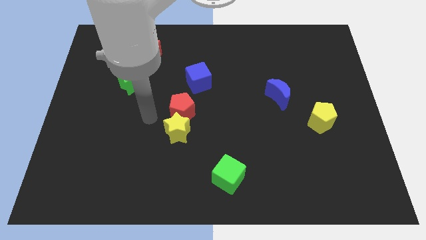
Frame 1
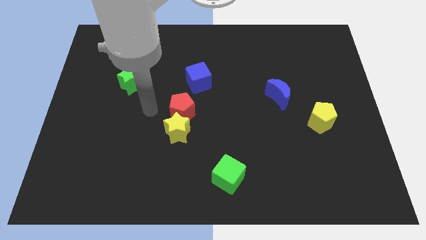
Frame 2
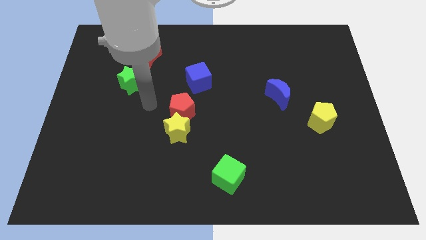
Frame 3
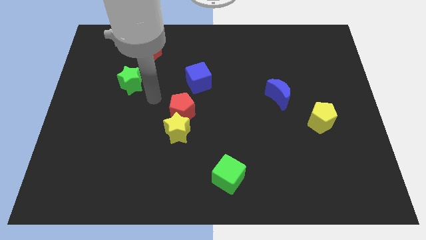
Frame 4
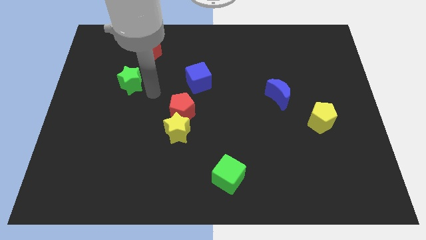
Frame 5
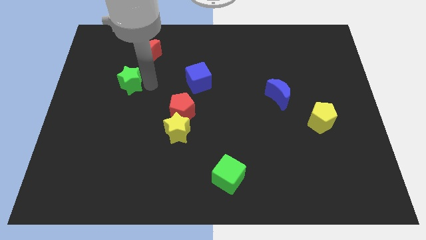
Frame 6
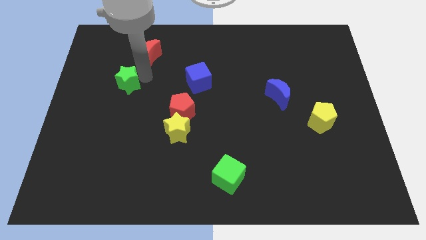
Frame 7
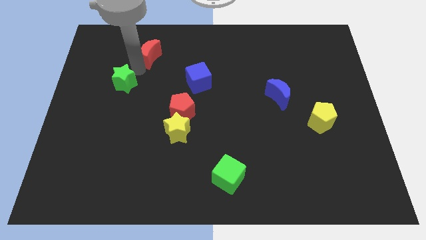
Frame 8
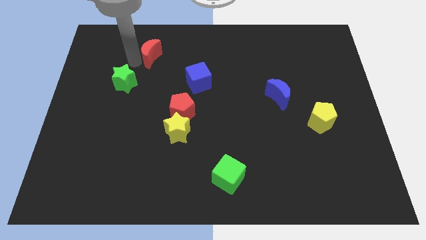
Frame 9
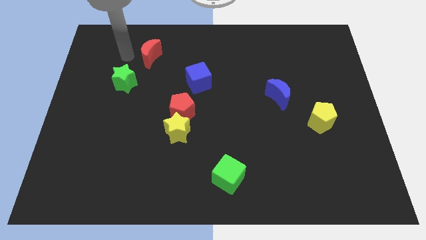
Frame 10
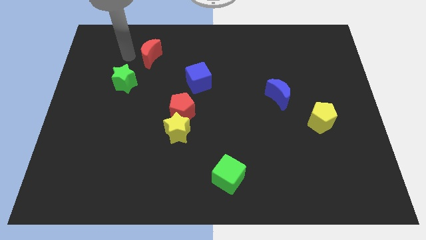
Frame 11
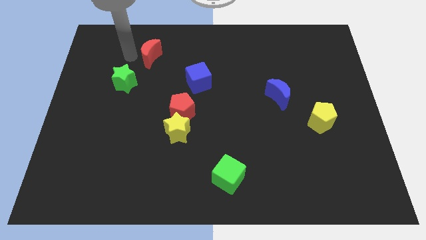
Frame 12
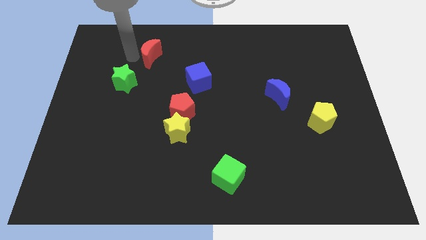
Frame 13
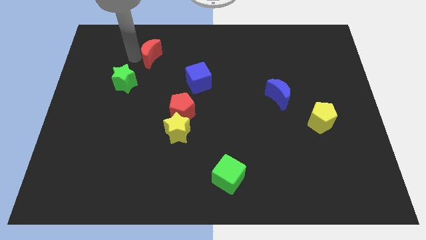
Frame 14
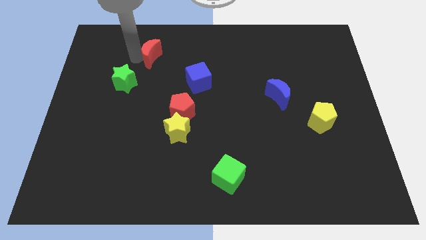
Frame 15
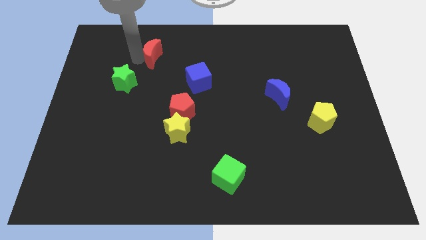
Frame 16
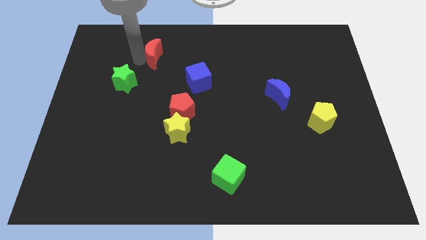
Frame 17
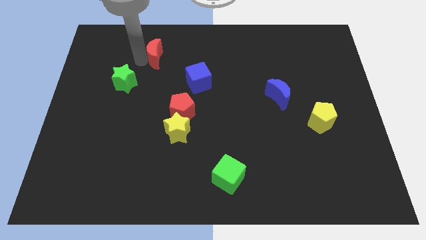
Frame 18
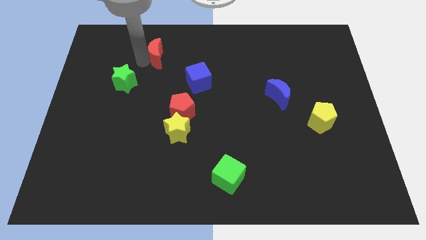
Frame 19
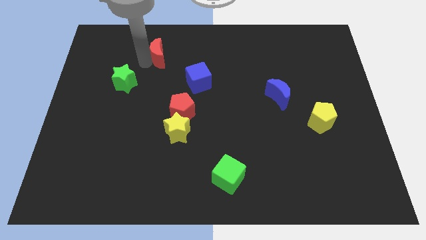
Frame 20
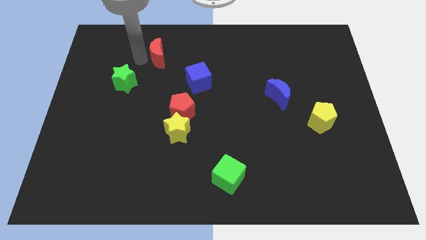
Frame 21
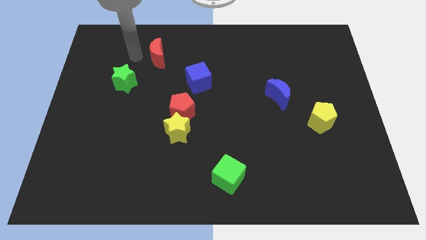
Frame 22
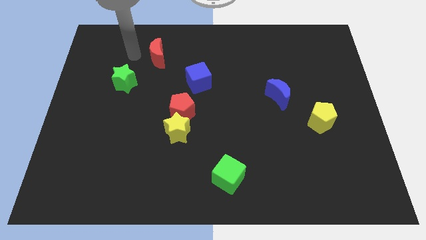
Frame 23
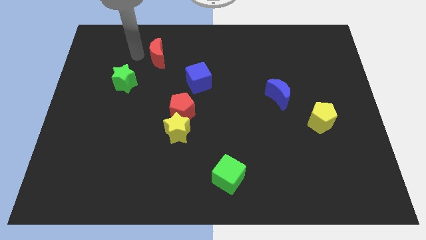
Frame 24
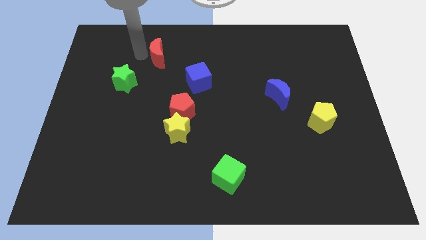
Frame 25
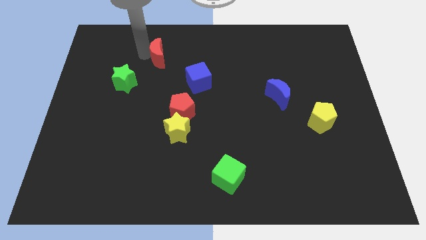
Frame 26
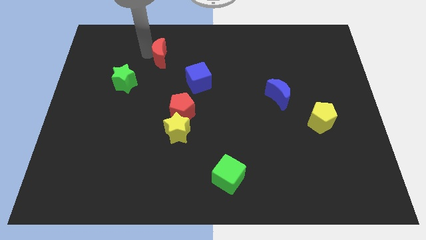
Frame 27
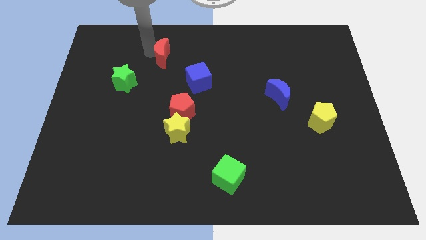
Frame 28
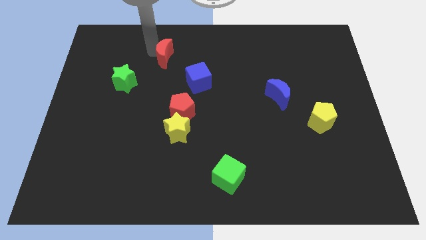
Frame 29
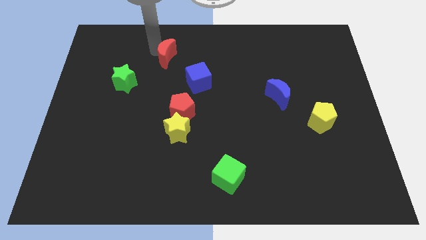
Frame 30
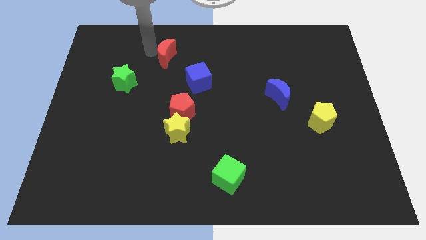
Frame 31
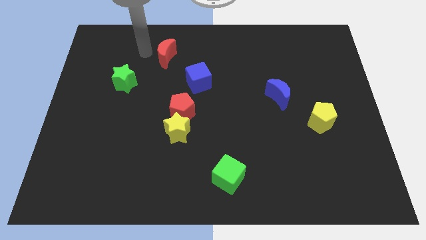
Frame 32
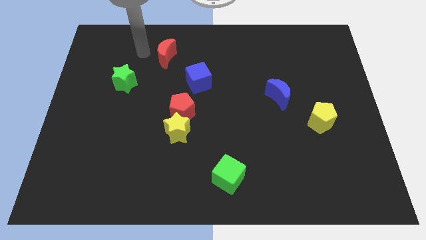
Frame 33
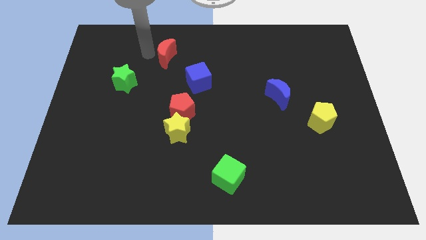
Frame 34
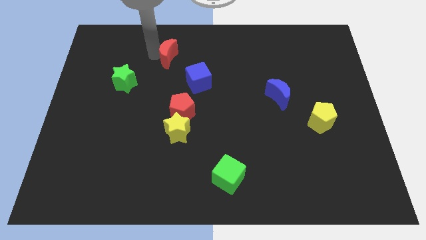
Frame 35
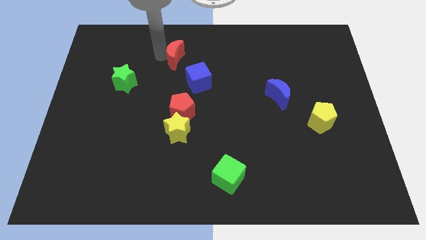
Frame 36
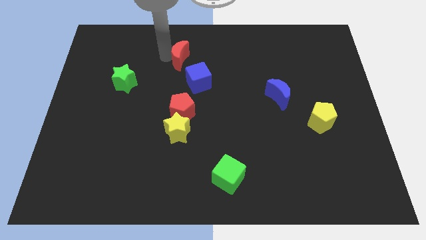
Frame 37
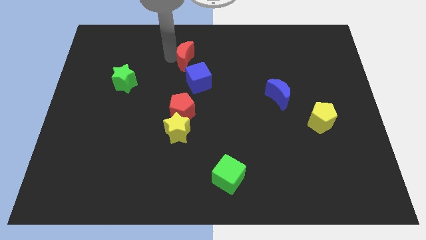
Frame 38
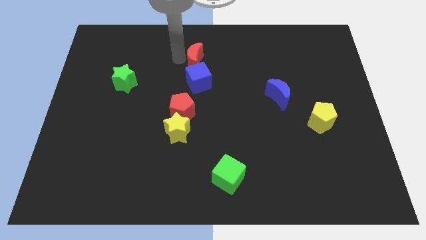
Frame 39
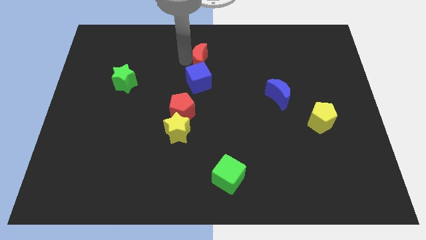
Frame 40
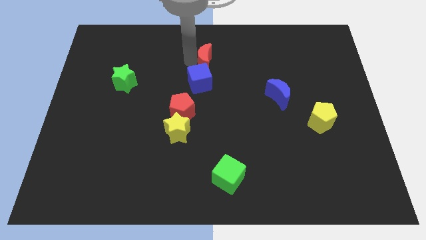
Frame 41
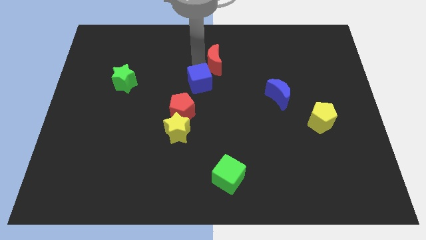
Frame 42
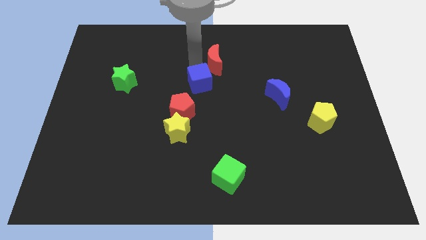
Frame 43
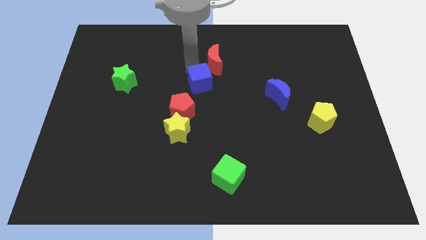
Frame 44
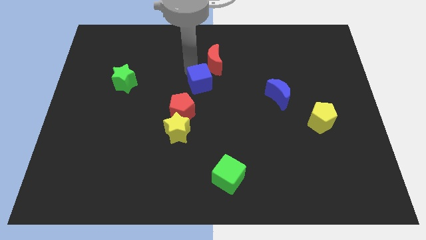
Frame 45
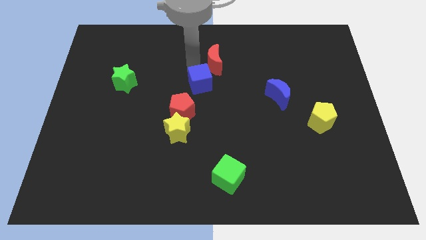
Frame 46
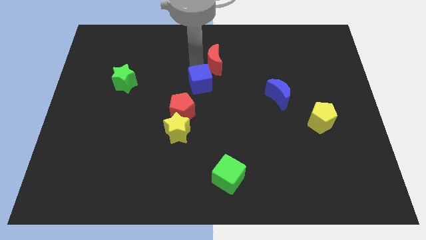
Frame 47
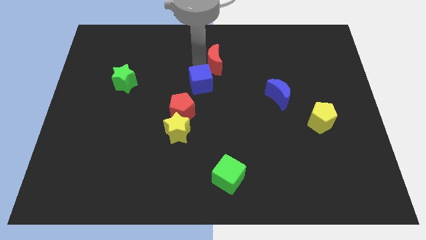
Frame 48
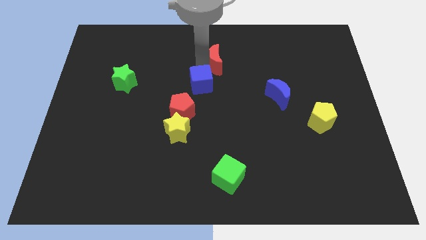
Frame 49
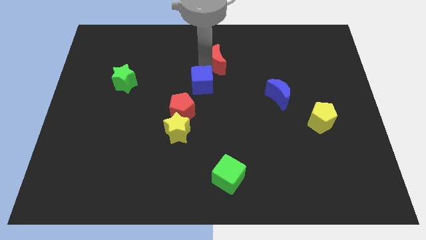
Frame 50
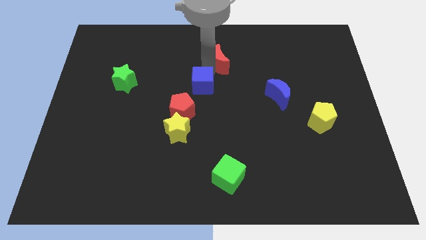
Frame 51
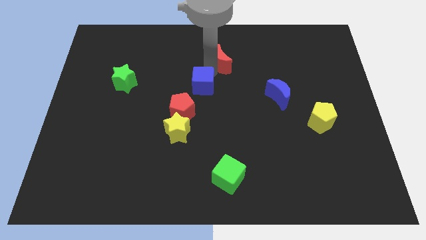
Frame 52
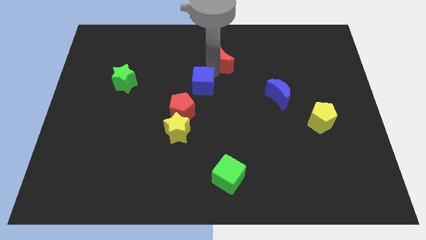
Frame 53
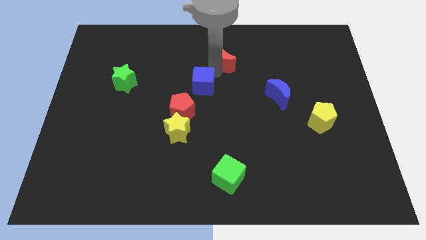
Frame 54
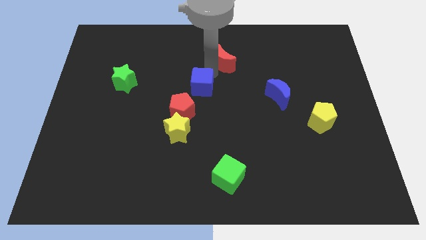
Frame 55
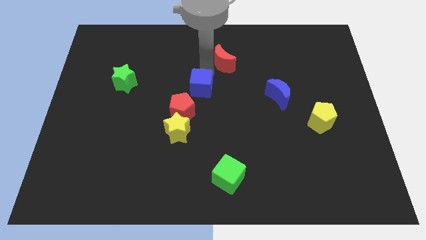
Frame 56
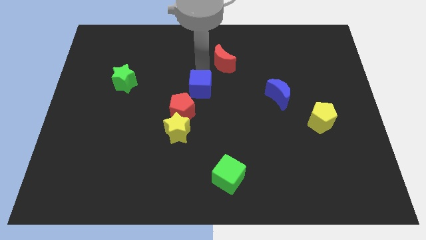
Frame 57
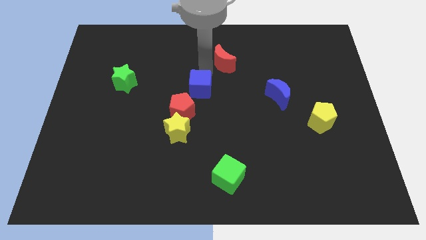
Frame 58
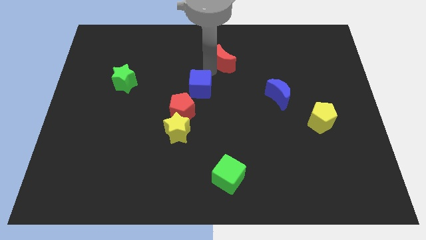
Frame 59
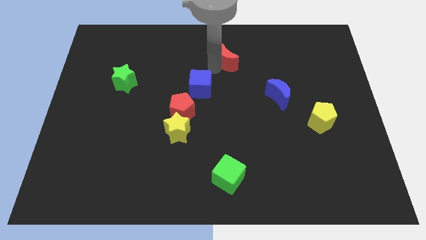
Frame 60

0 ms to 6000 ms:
slide the red moon to the right

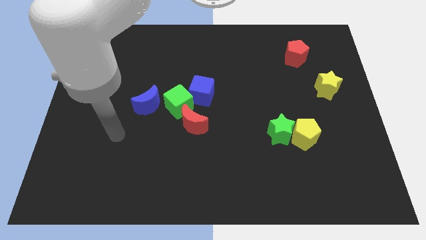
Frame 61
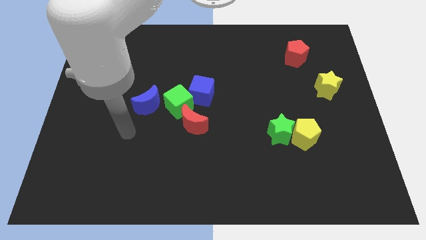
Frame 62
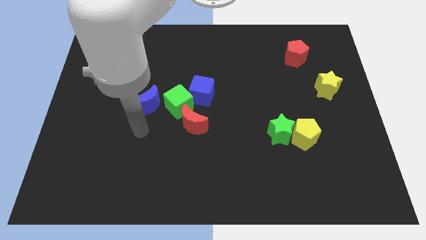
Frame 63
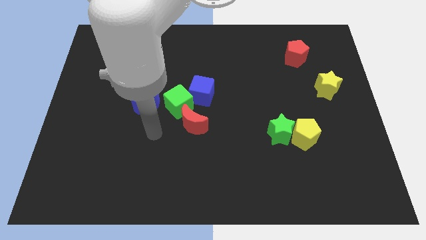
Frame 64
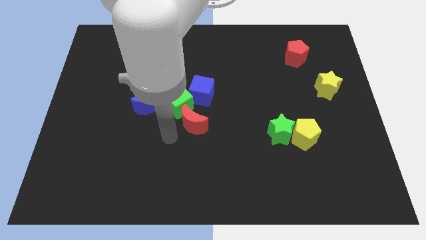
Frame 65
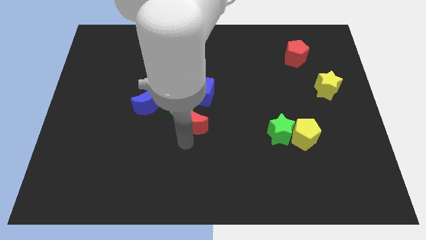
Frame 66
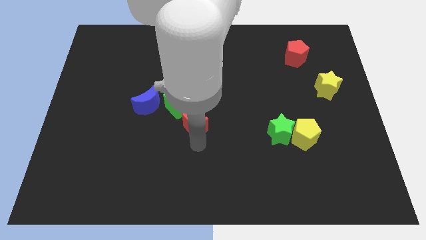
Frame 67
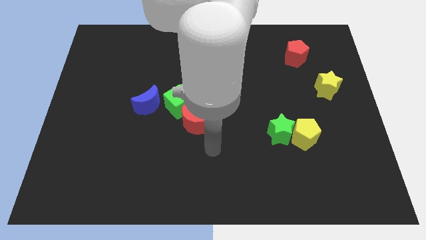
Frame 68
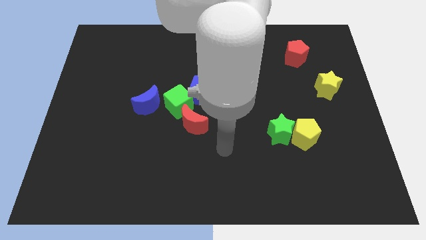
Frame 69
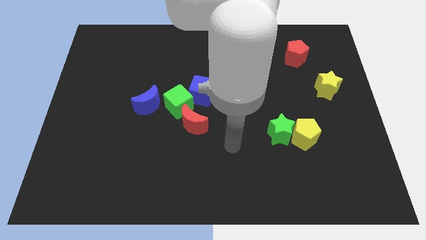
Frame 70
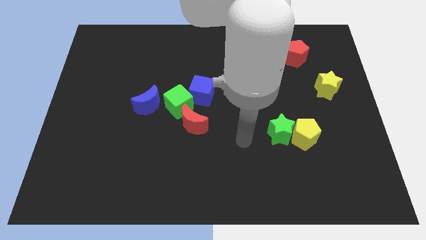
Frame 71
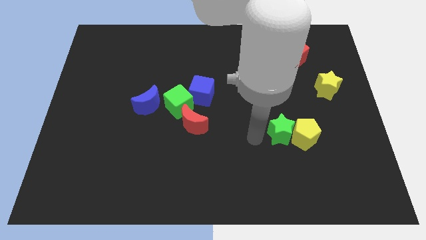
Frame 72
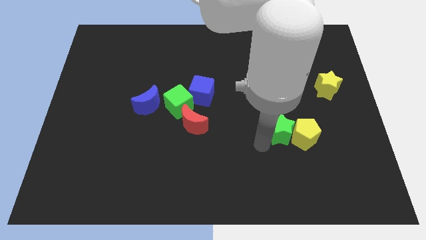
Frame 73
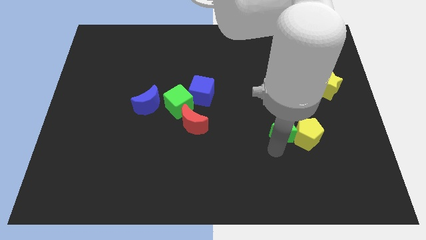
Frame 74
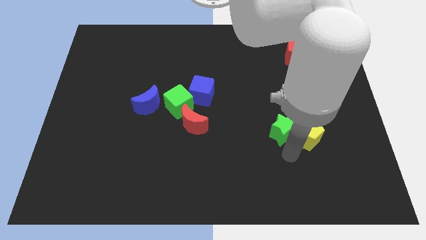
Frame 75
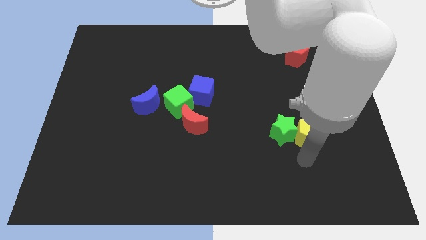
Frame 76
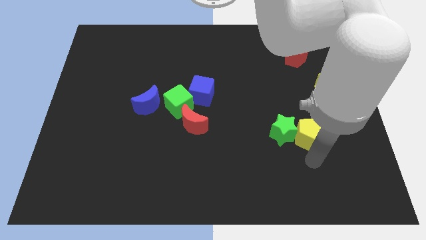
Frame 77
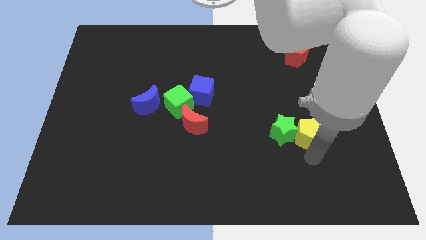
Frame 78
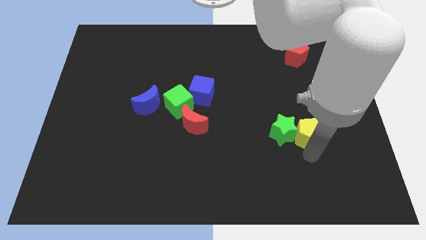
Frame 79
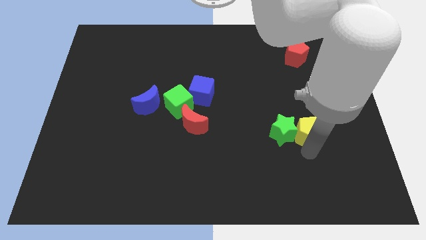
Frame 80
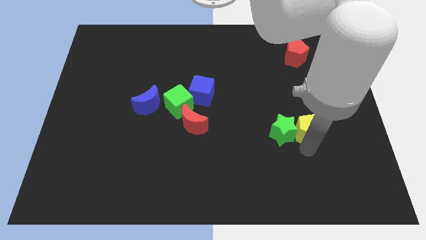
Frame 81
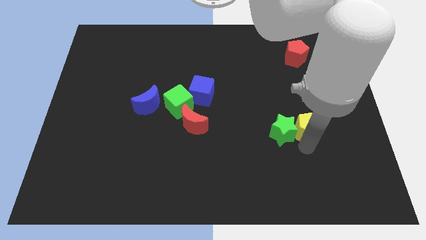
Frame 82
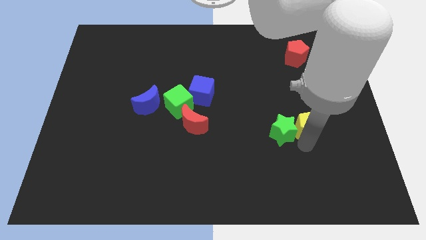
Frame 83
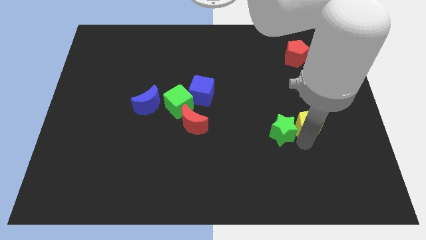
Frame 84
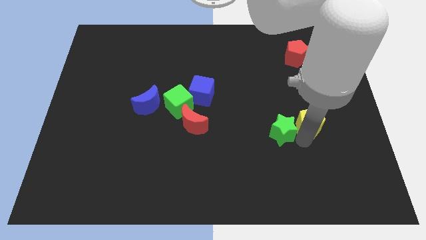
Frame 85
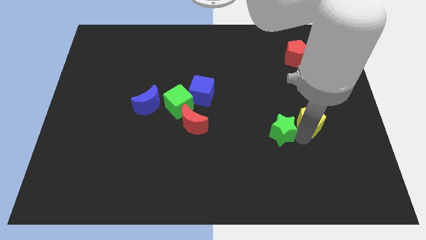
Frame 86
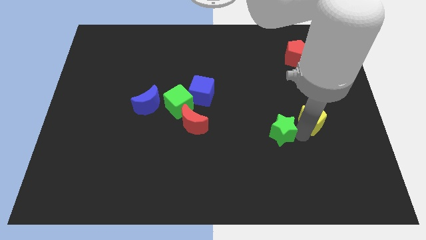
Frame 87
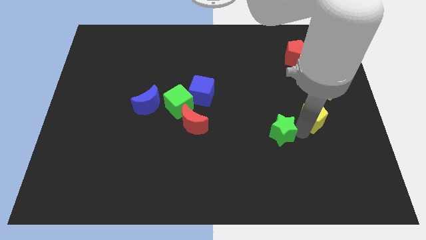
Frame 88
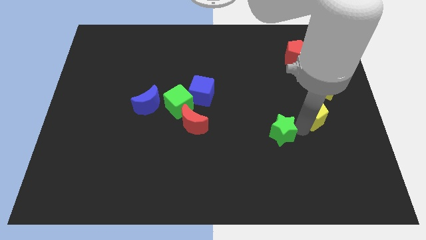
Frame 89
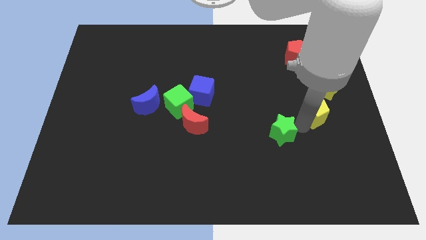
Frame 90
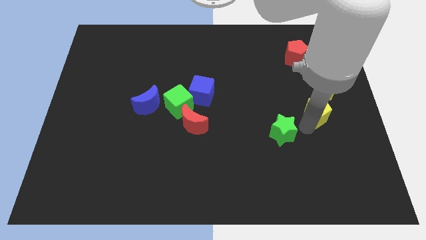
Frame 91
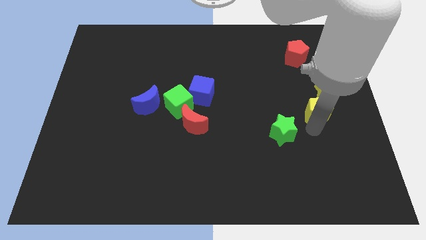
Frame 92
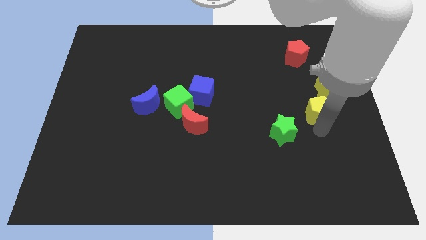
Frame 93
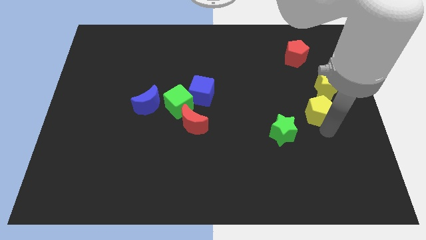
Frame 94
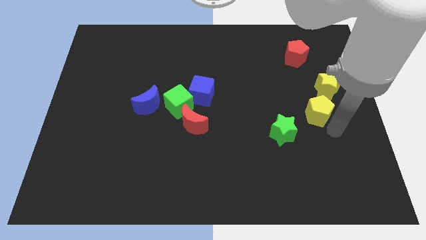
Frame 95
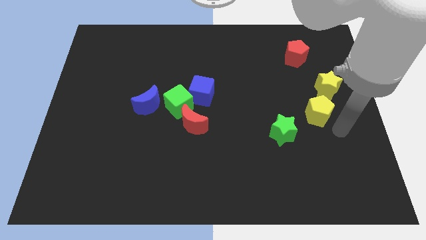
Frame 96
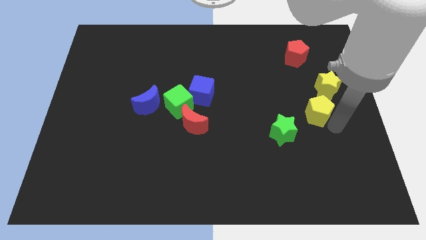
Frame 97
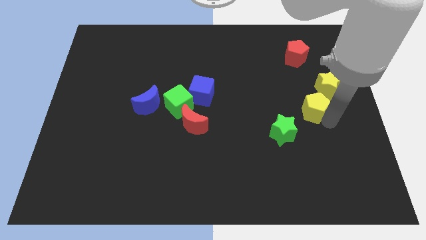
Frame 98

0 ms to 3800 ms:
move the yellow pentagon up a bit
